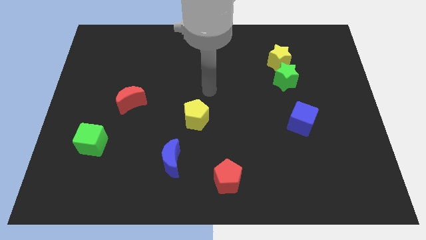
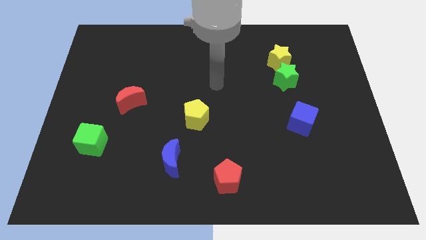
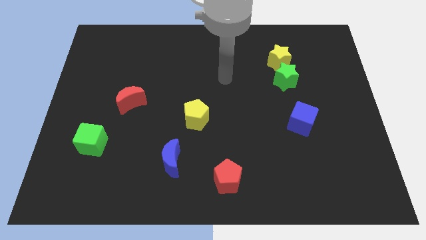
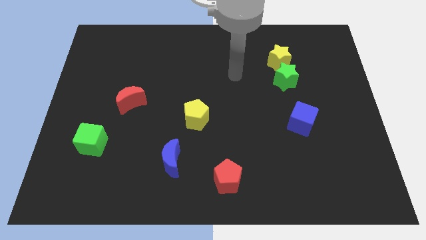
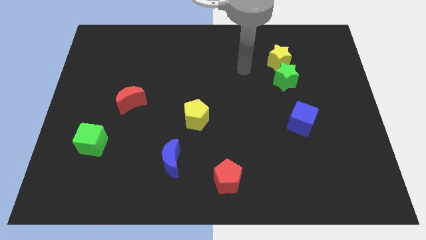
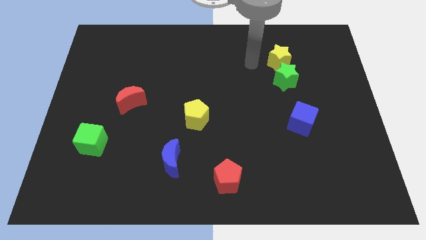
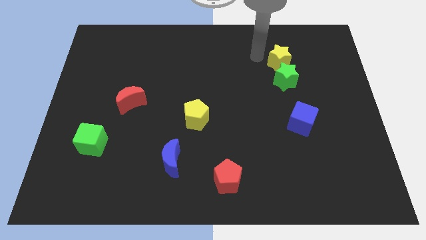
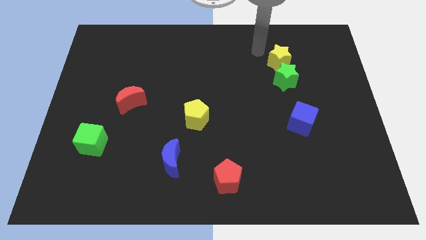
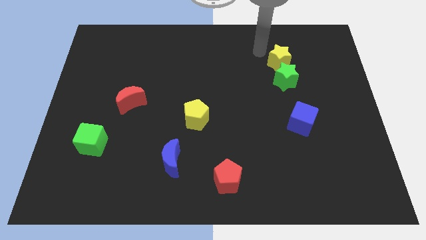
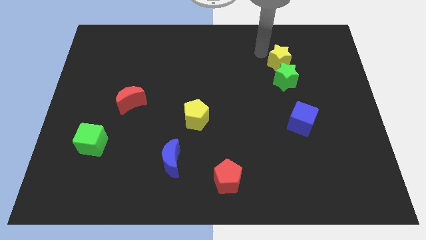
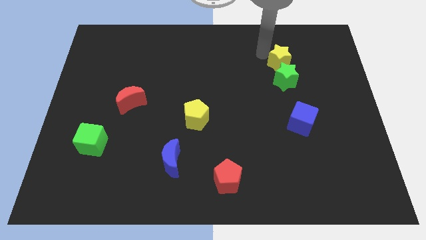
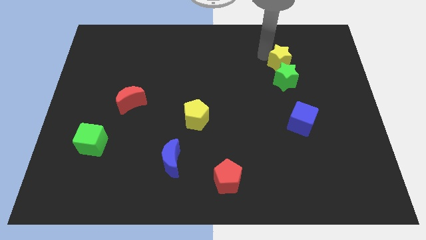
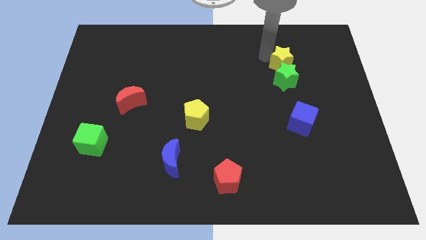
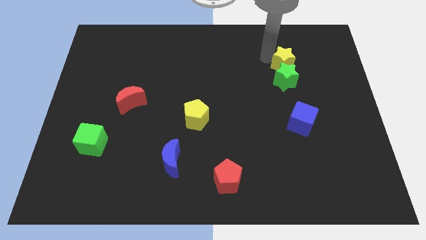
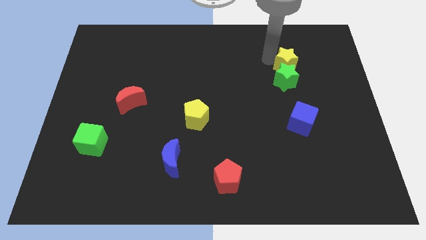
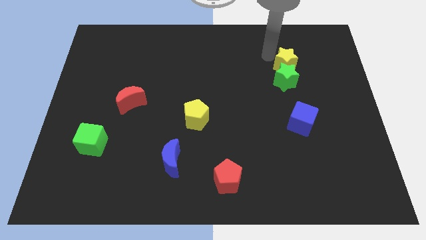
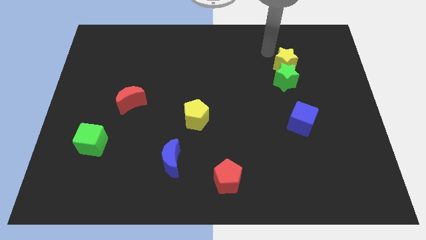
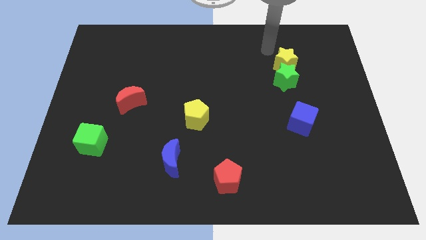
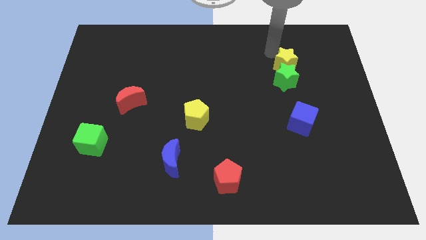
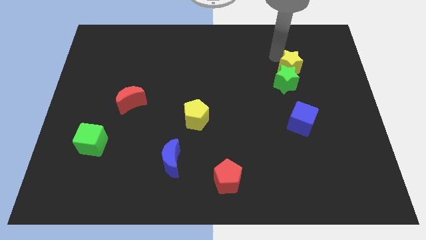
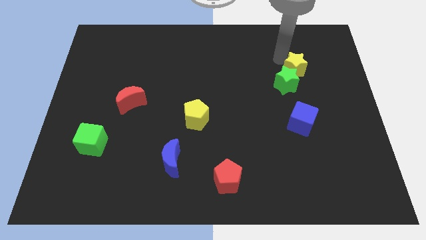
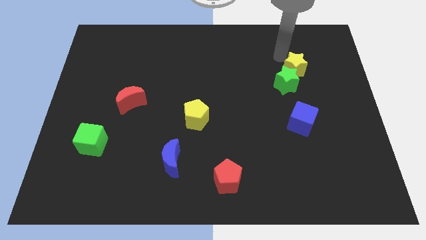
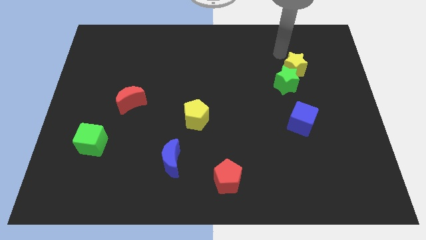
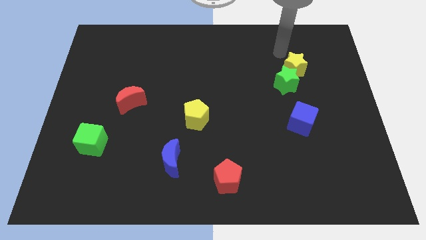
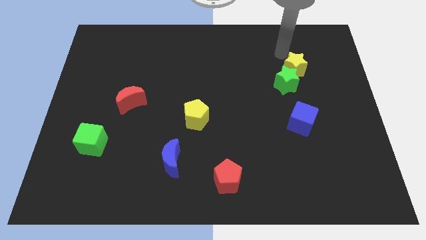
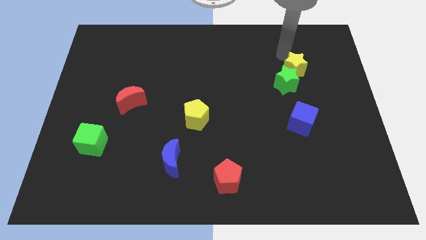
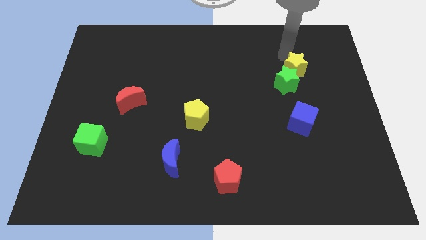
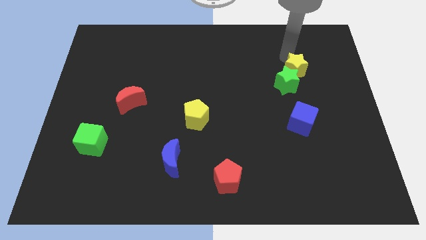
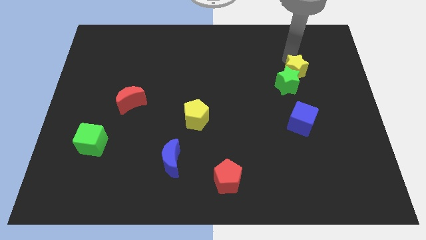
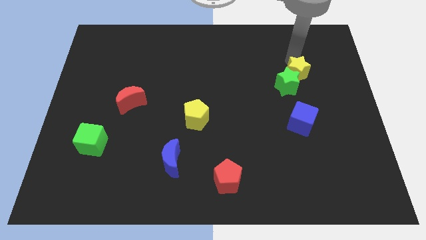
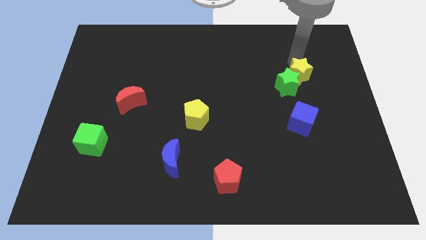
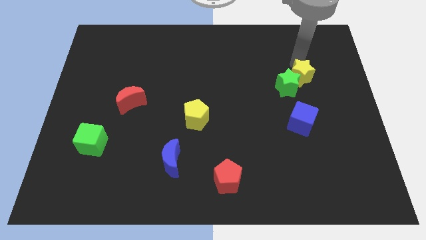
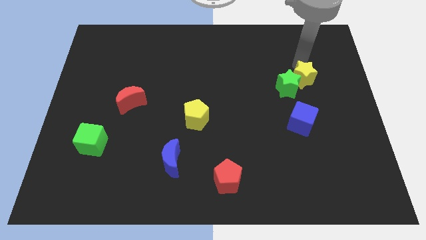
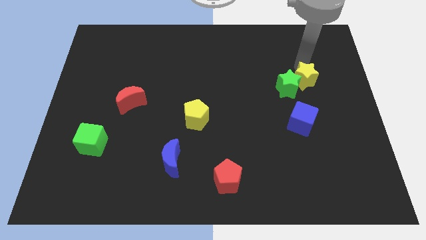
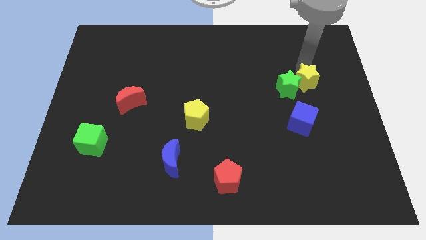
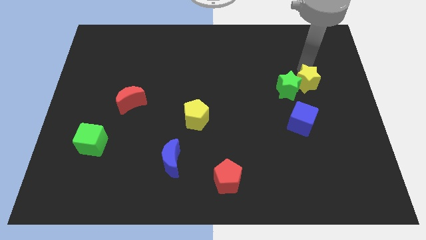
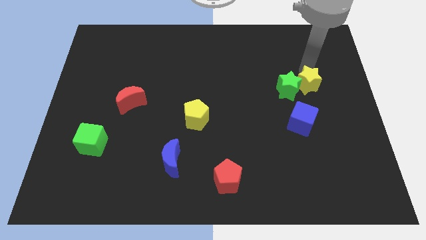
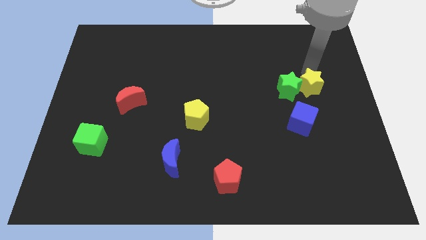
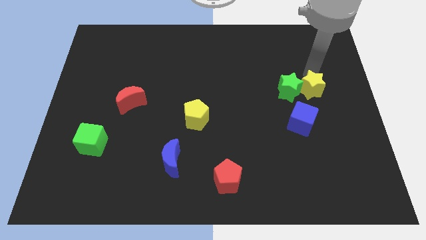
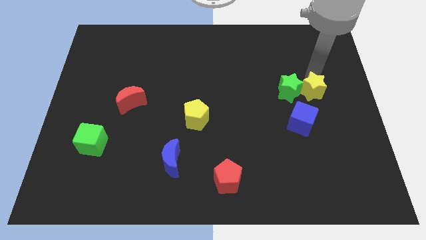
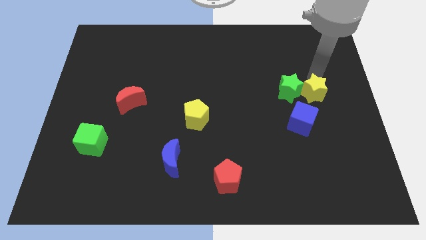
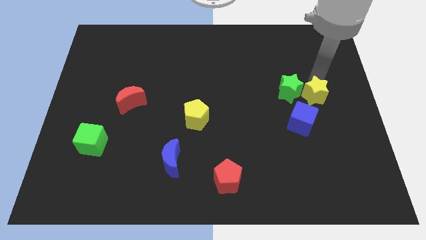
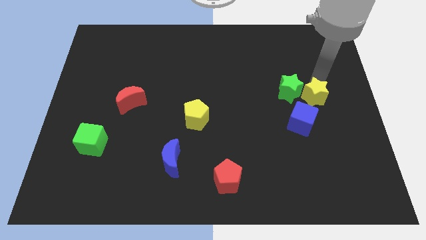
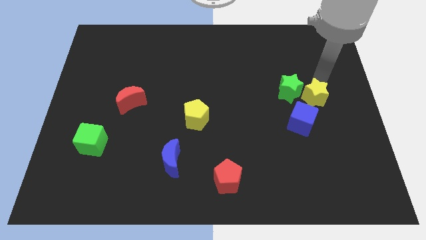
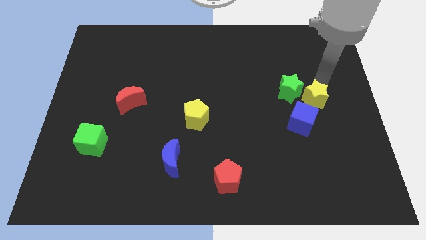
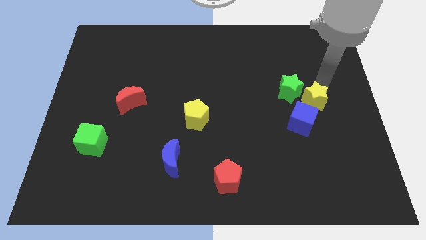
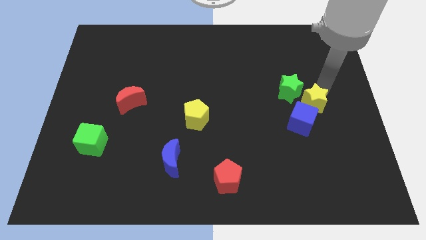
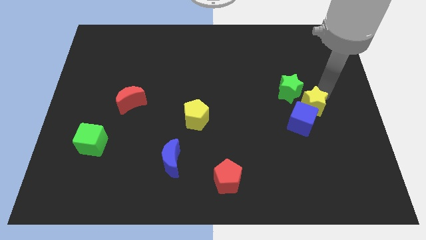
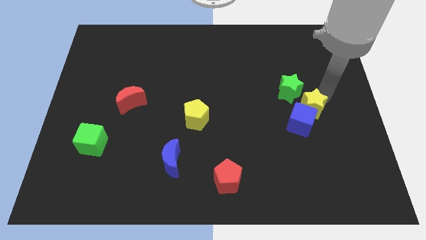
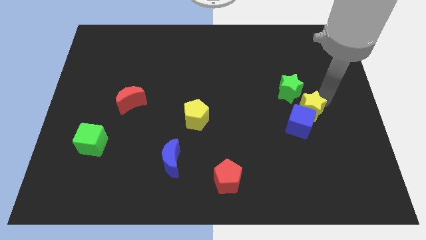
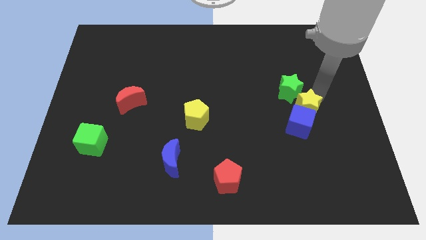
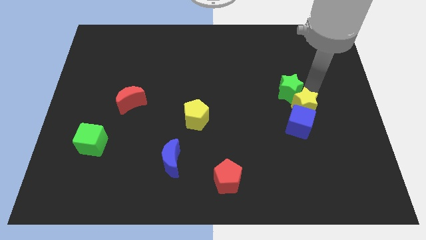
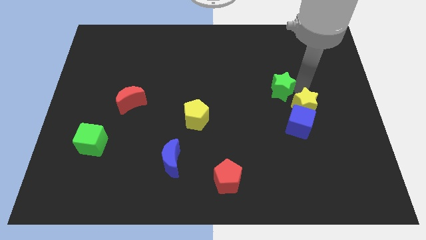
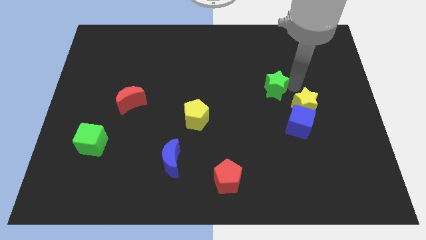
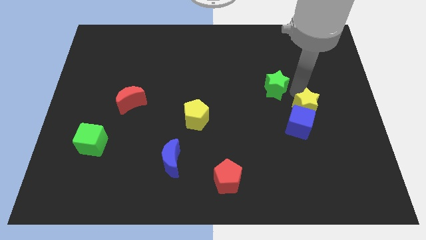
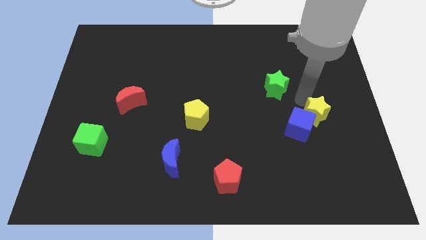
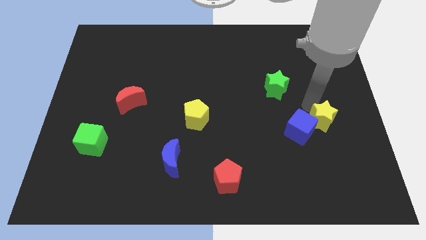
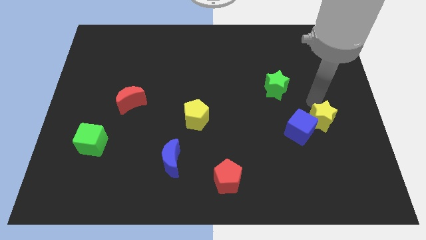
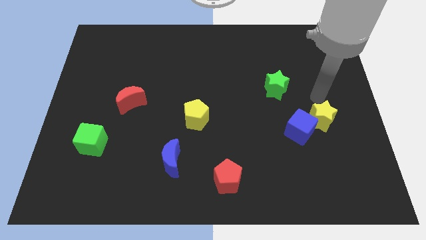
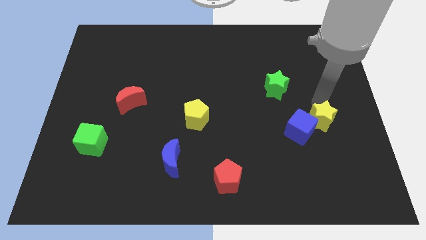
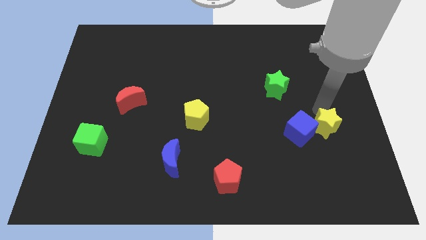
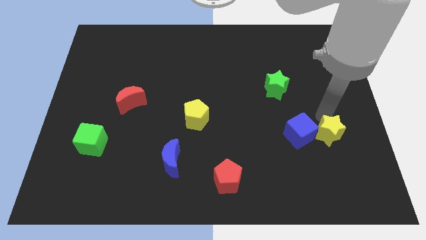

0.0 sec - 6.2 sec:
put the yellow star to the bottom right of the blue cube

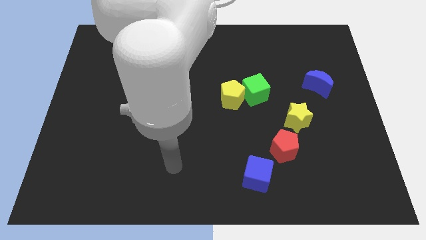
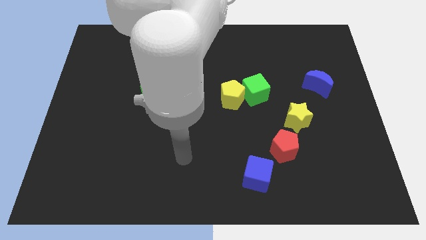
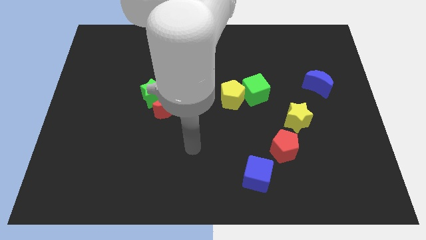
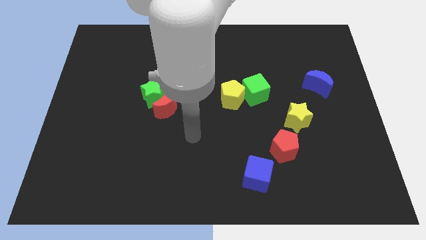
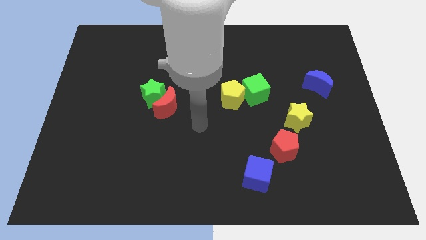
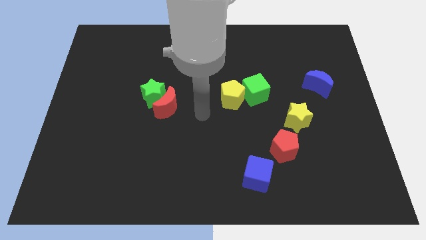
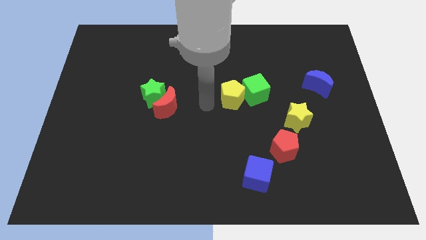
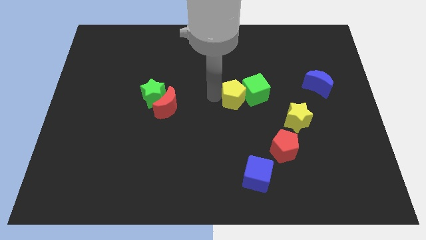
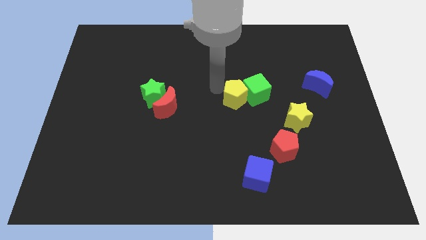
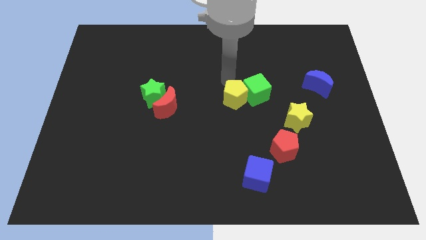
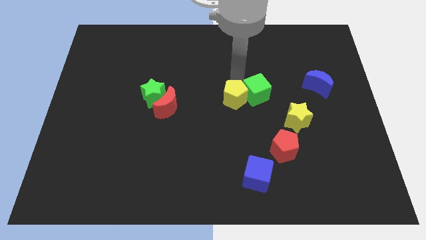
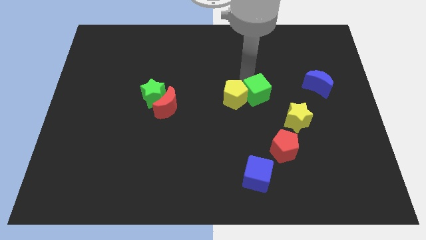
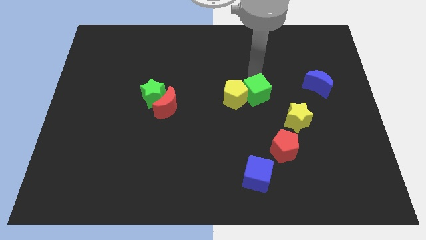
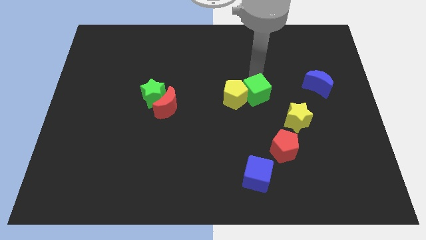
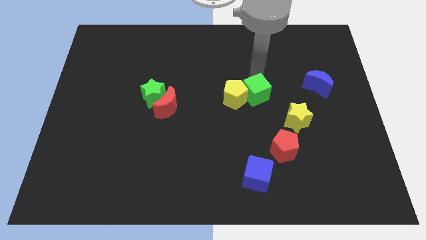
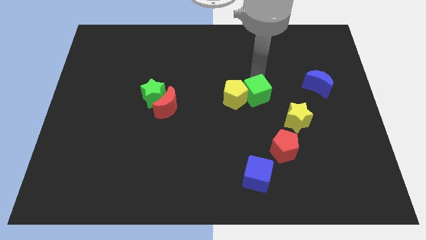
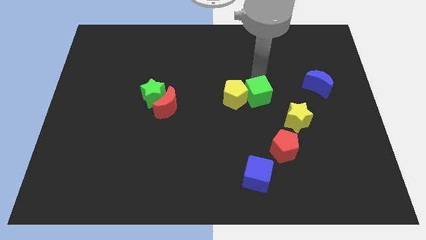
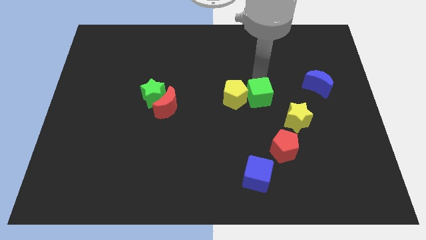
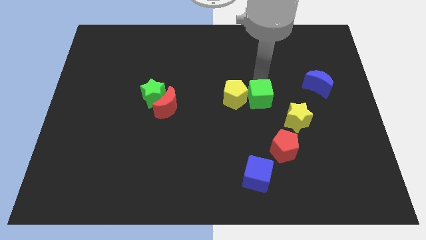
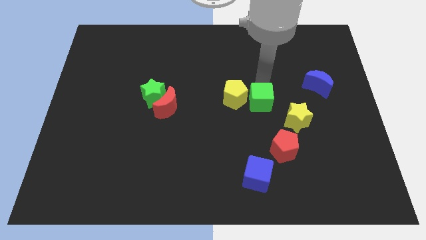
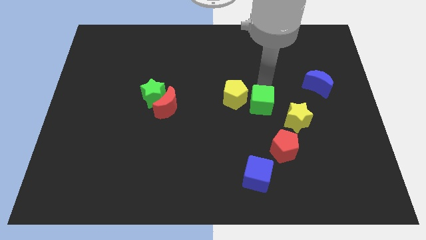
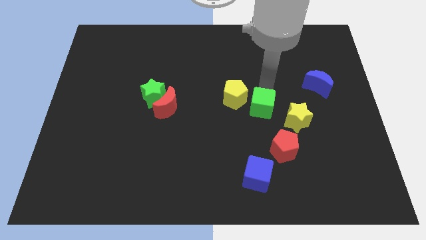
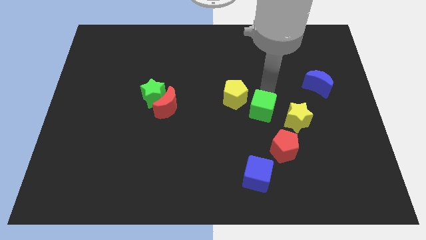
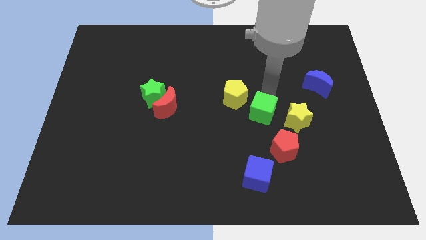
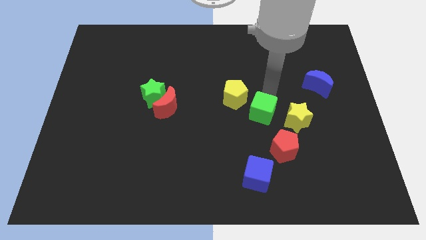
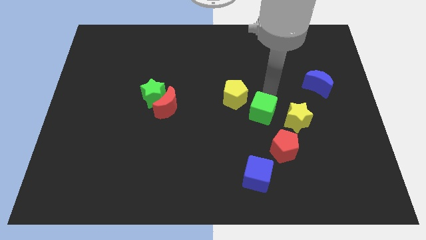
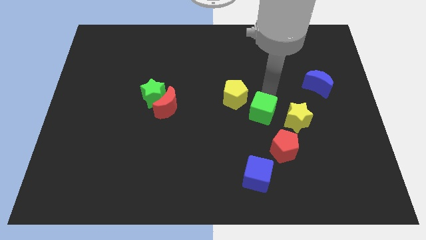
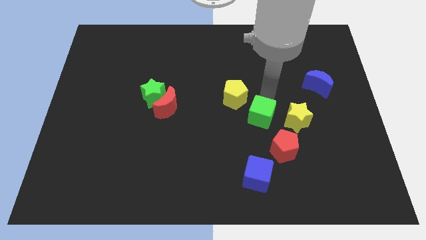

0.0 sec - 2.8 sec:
put the green cube to the top side of the blue cube
